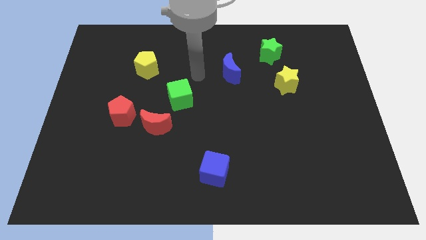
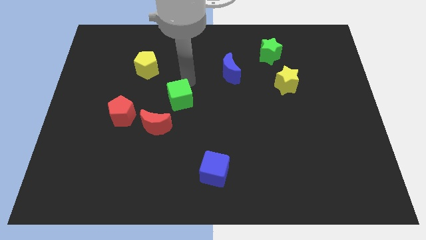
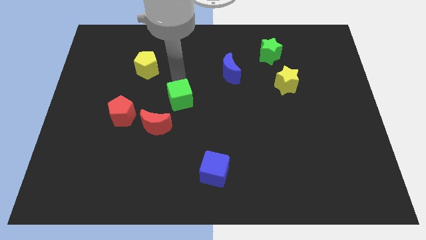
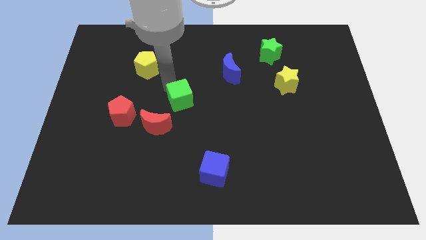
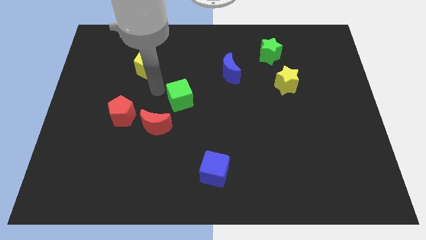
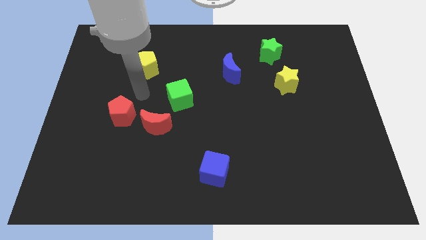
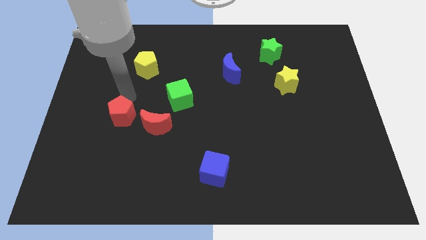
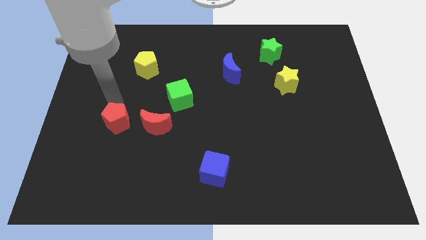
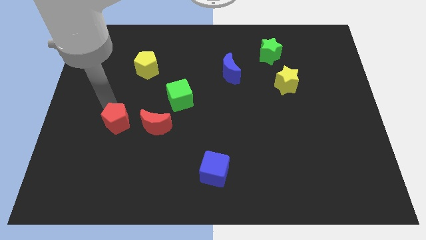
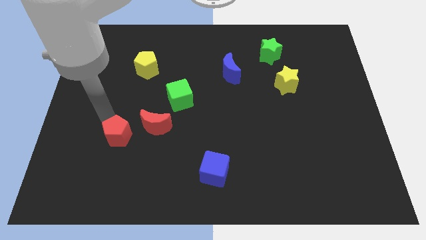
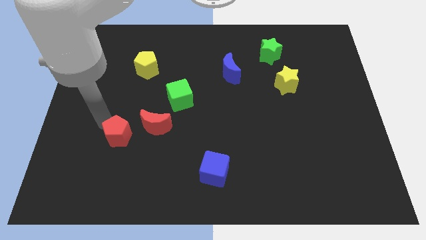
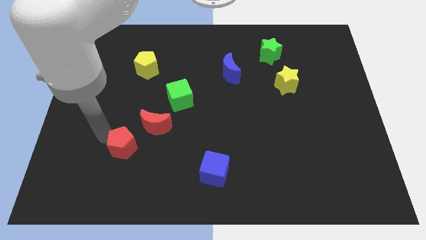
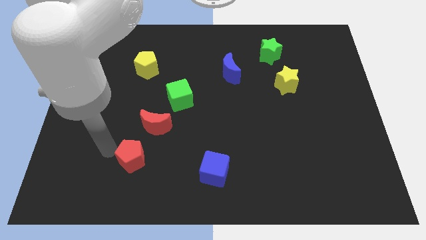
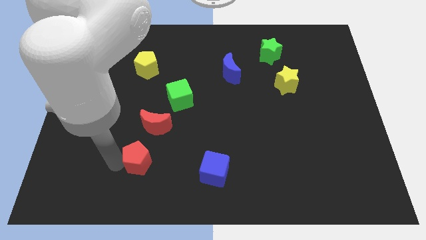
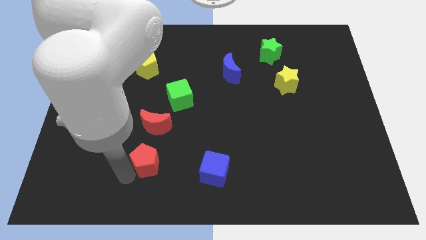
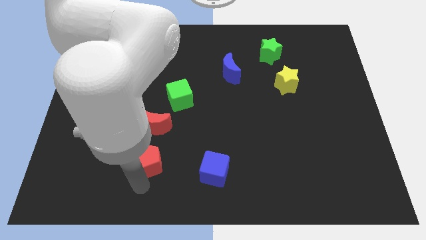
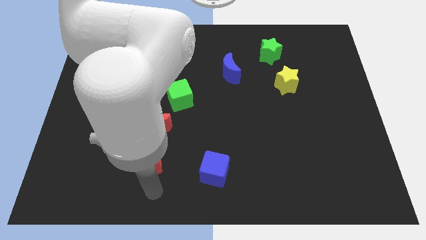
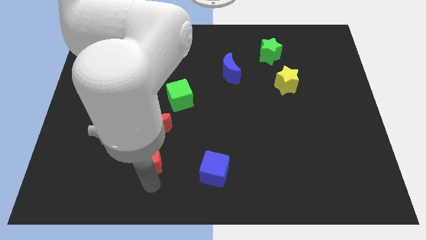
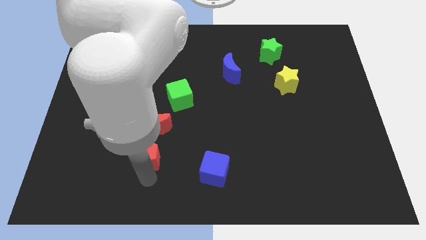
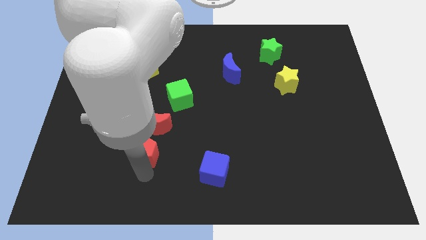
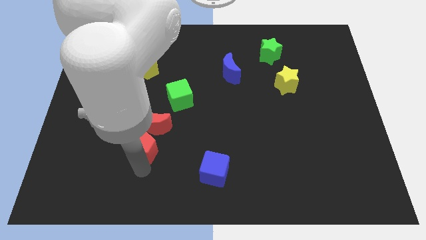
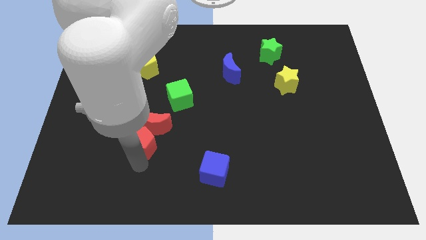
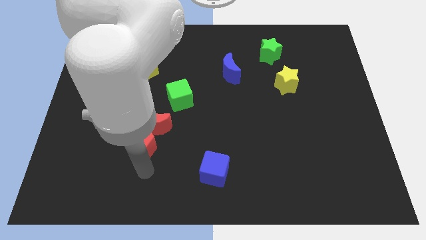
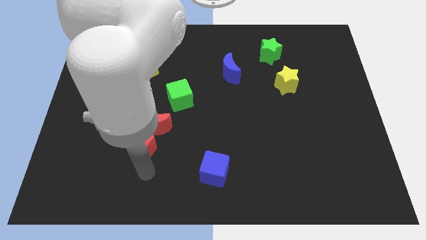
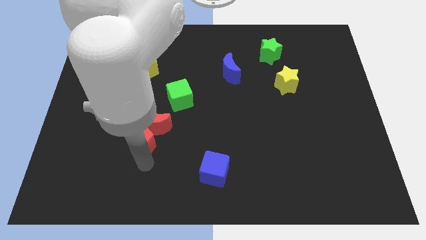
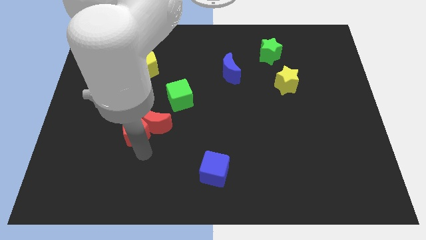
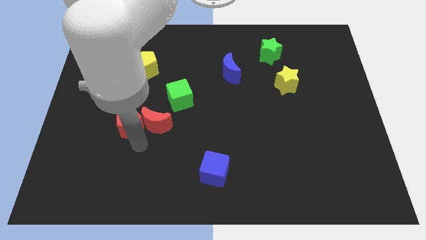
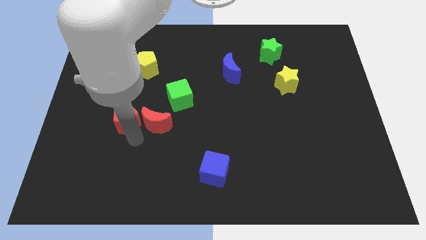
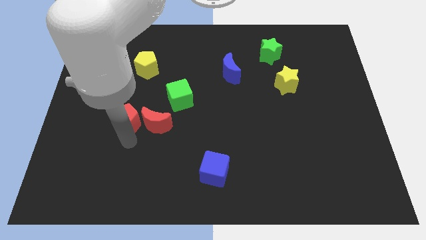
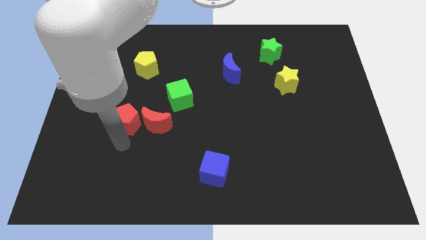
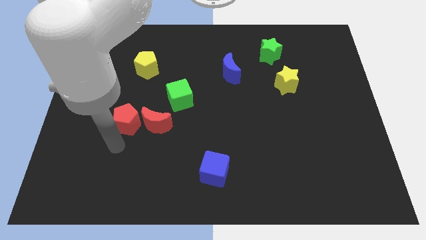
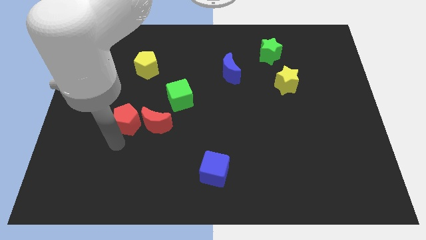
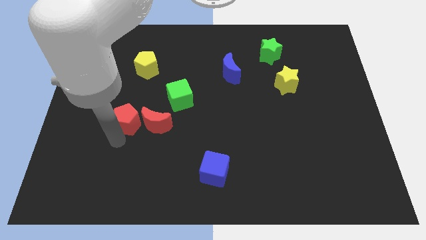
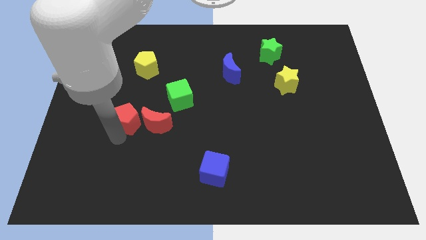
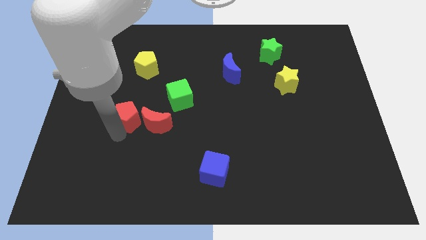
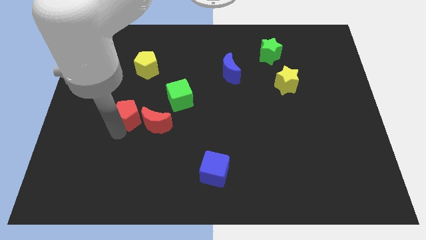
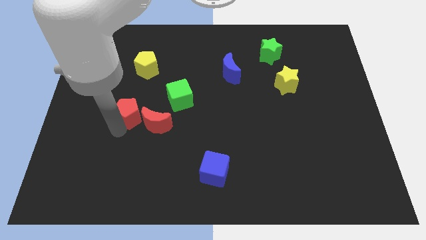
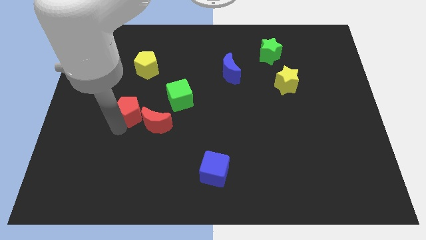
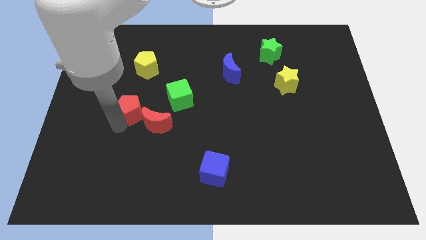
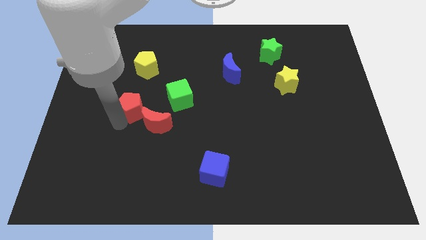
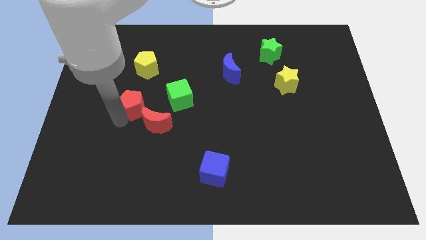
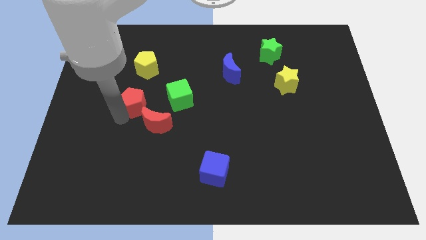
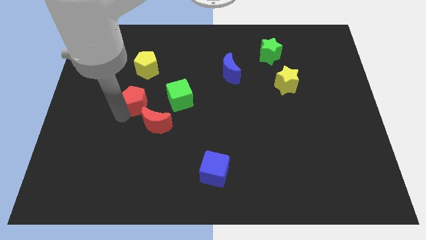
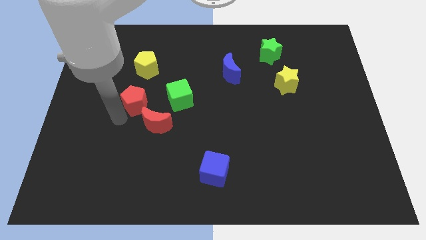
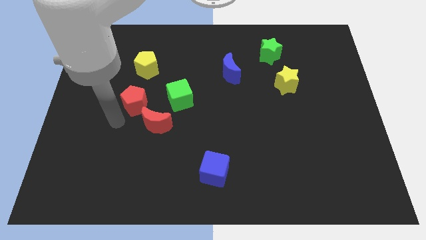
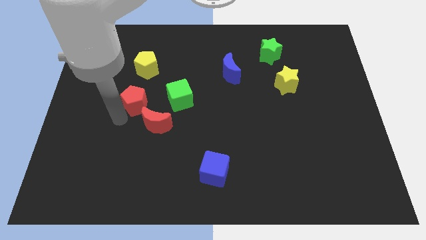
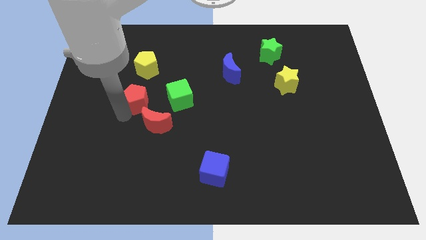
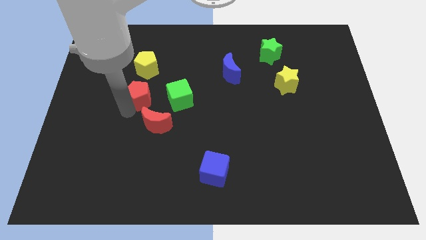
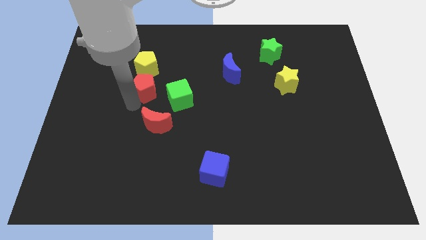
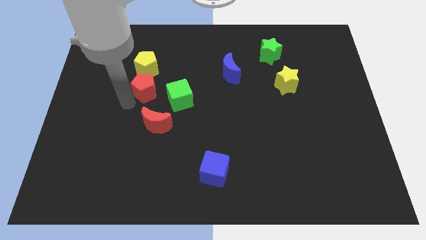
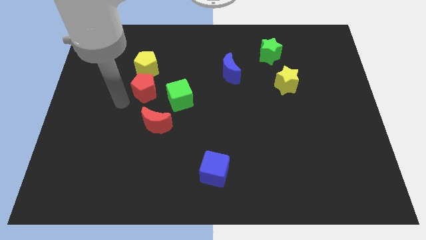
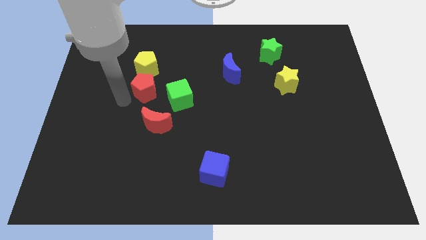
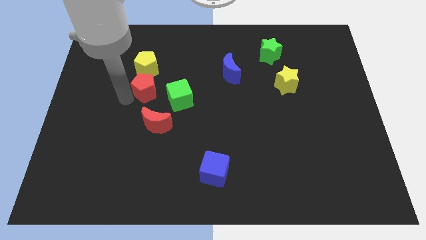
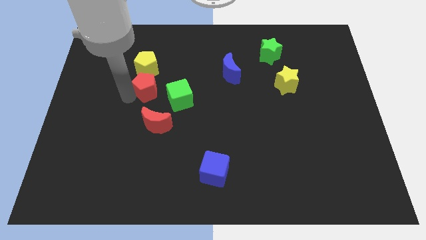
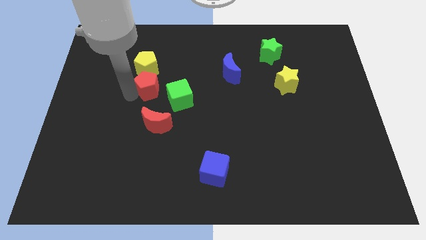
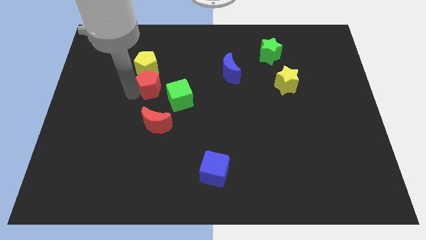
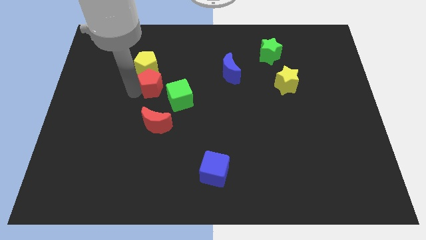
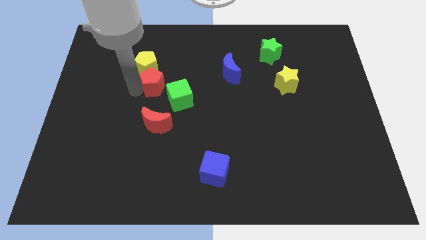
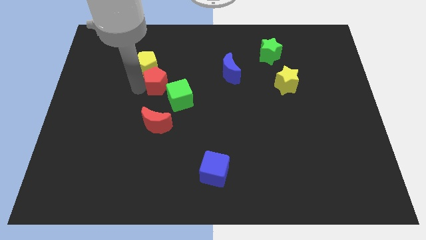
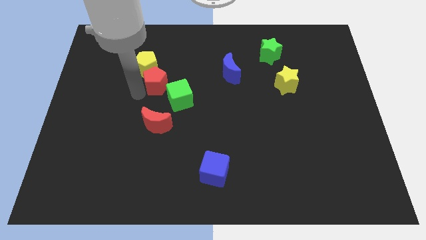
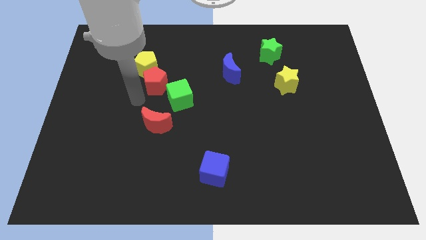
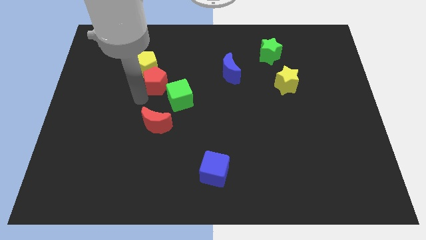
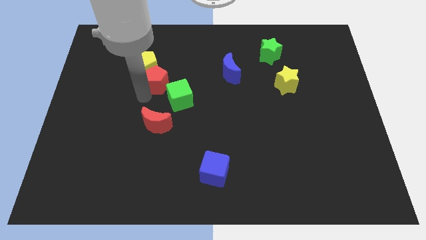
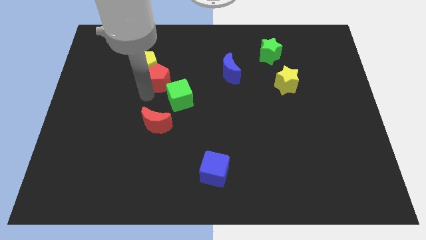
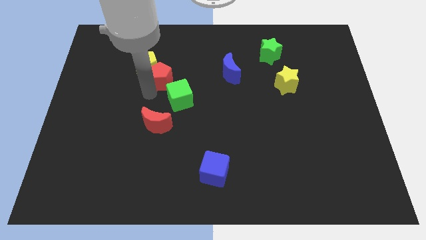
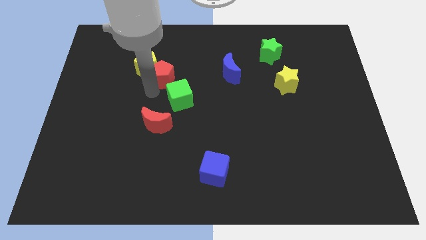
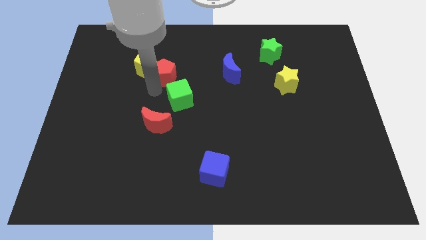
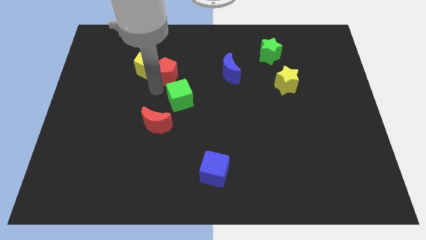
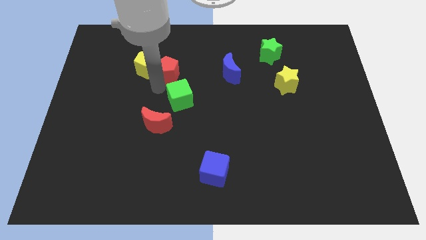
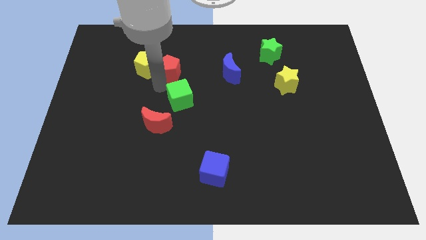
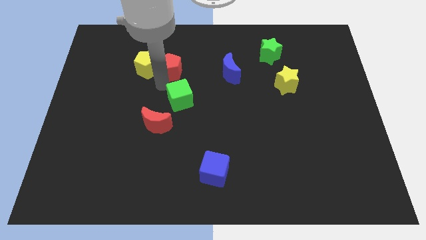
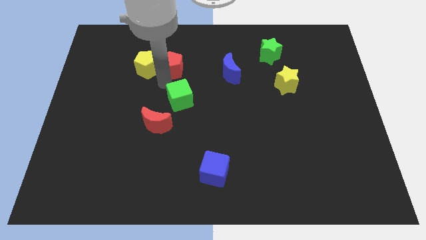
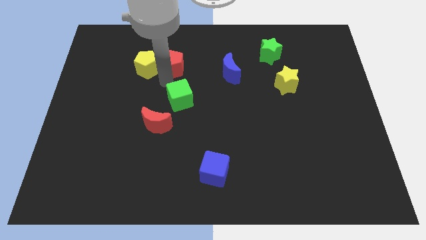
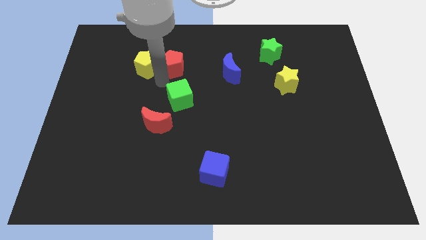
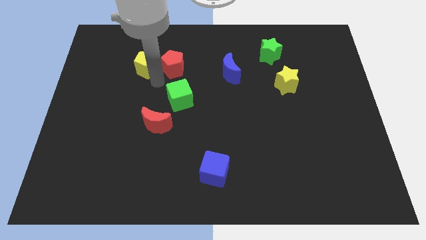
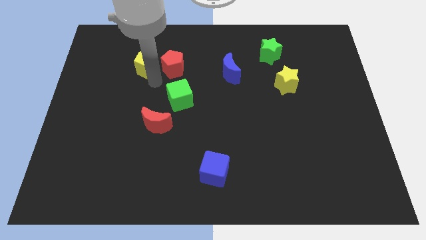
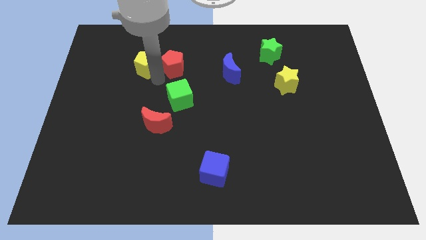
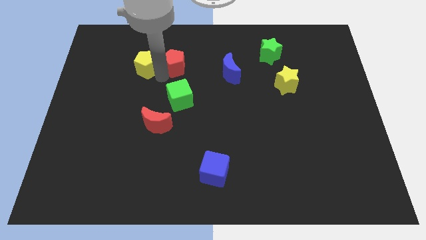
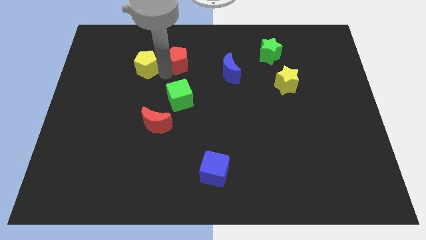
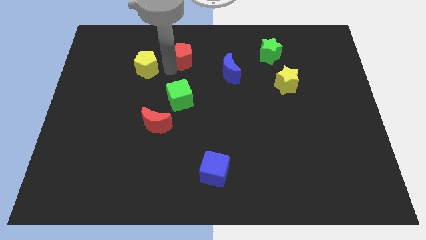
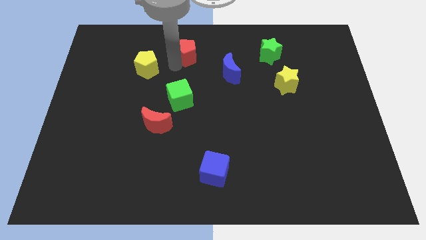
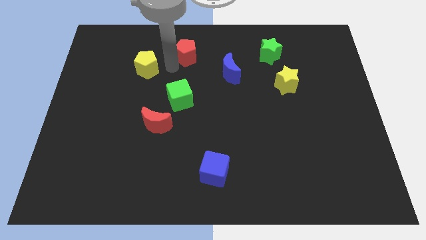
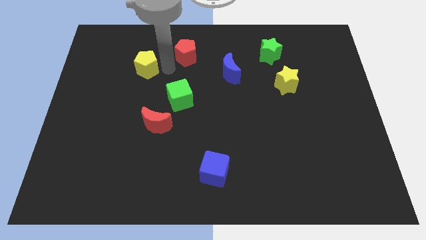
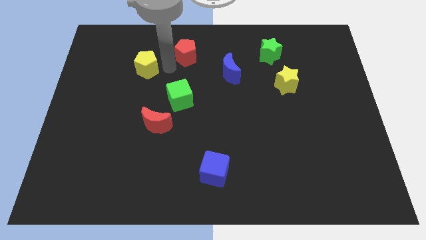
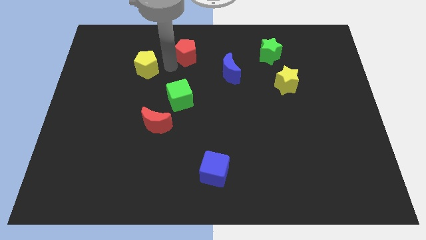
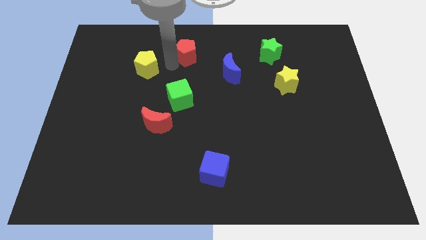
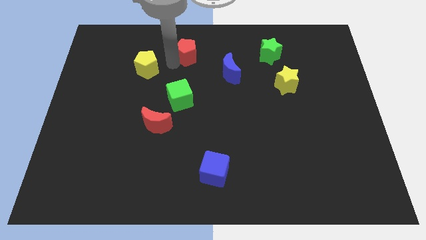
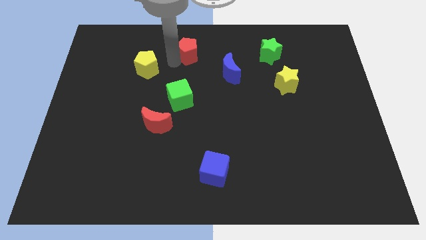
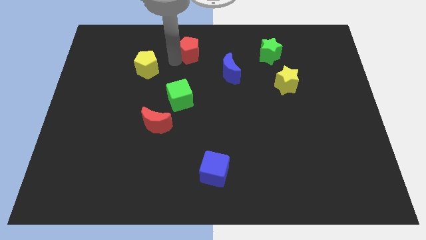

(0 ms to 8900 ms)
move the red pentagon to the top
